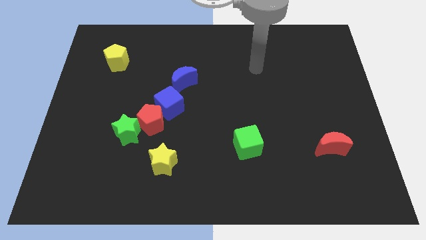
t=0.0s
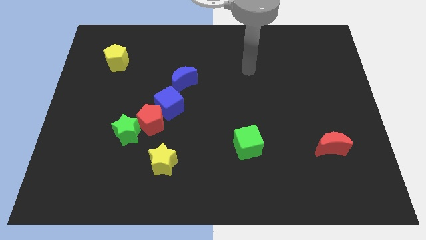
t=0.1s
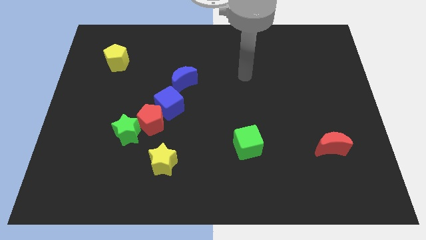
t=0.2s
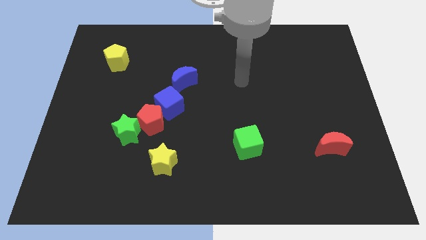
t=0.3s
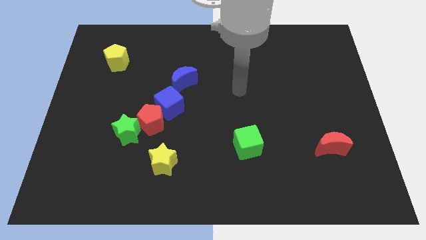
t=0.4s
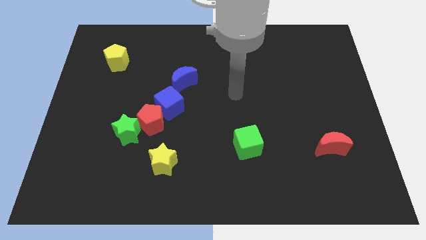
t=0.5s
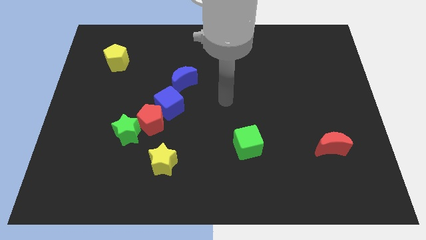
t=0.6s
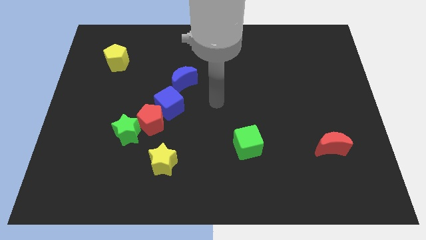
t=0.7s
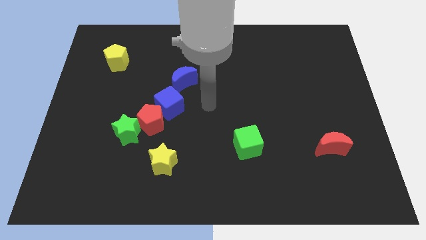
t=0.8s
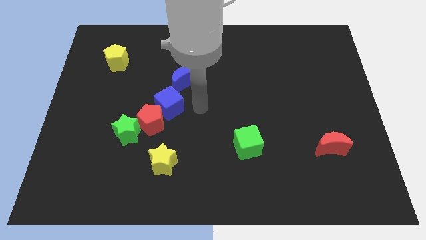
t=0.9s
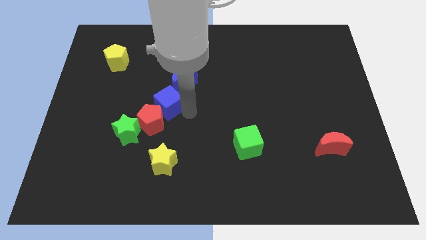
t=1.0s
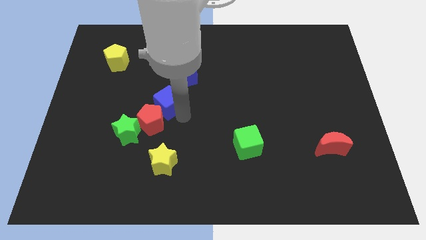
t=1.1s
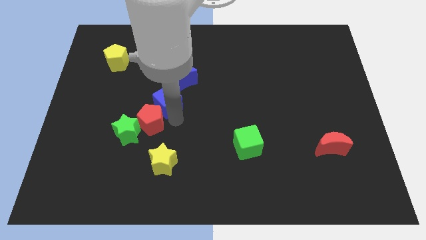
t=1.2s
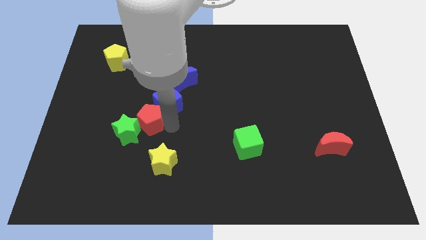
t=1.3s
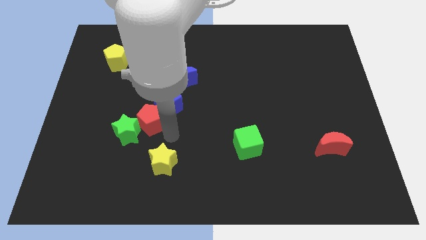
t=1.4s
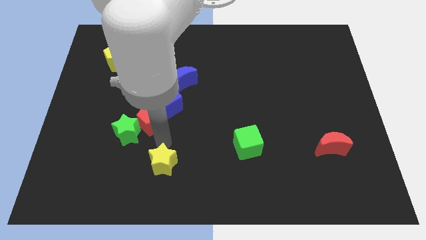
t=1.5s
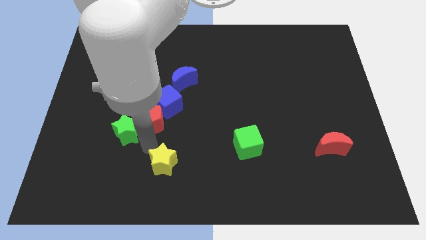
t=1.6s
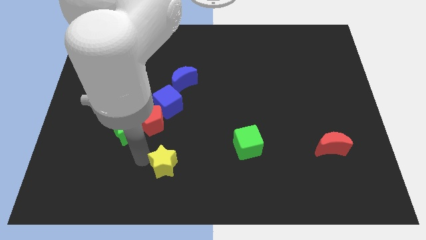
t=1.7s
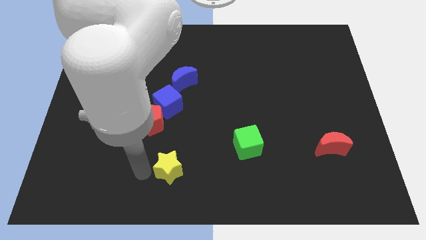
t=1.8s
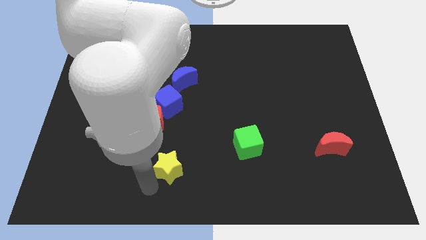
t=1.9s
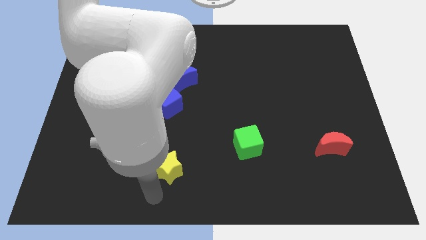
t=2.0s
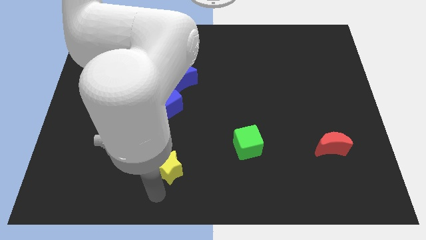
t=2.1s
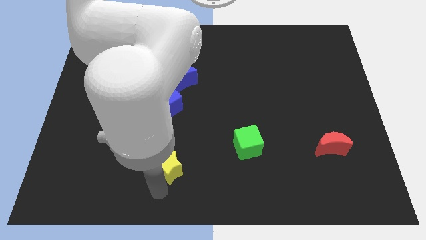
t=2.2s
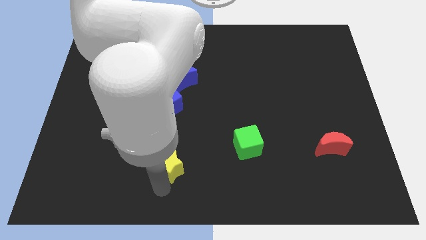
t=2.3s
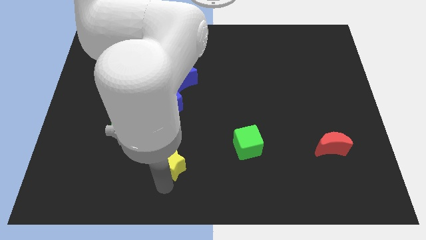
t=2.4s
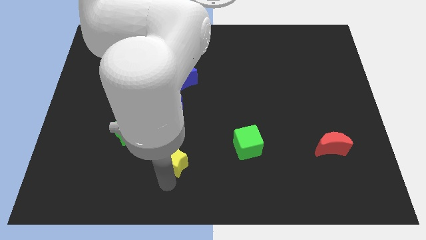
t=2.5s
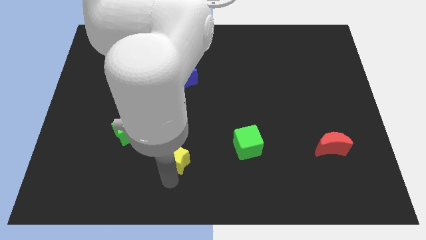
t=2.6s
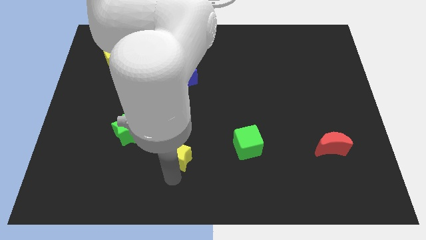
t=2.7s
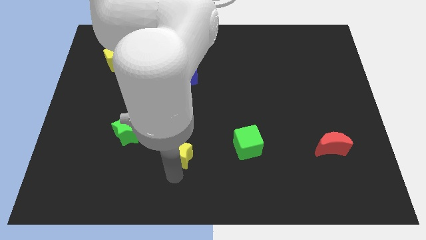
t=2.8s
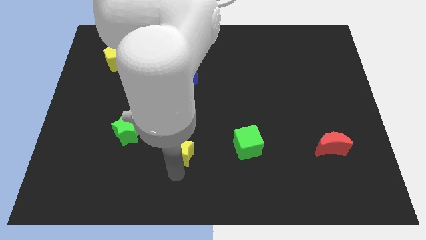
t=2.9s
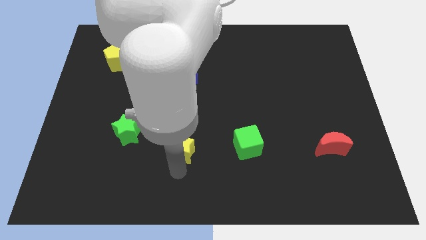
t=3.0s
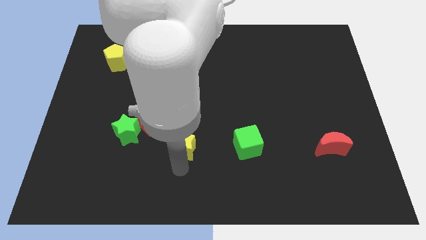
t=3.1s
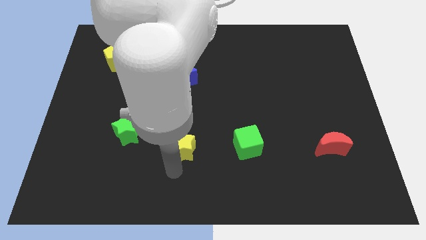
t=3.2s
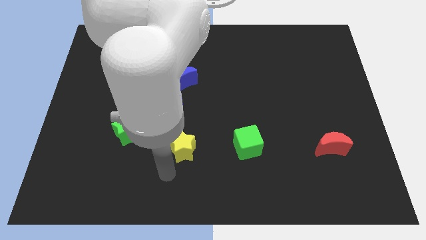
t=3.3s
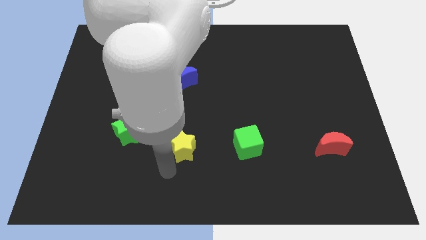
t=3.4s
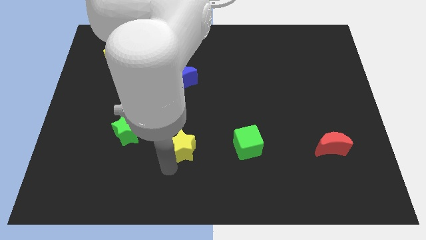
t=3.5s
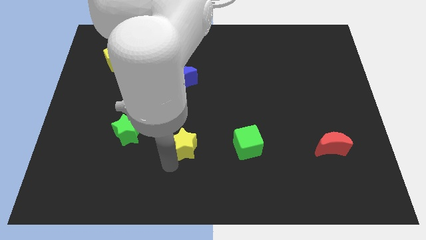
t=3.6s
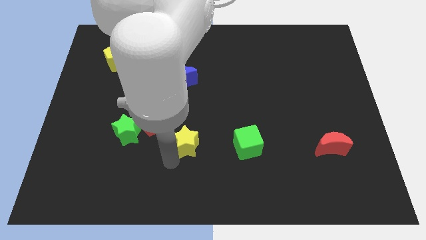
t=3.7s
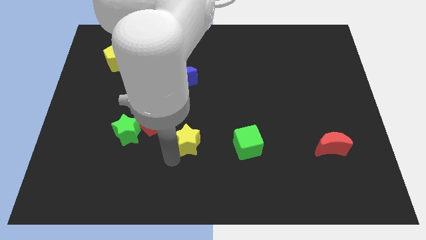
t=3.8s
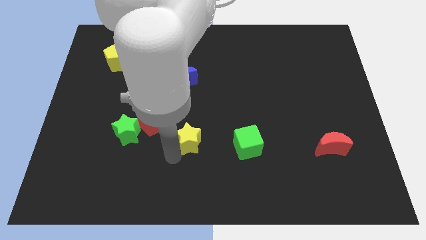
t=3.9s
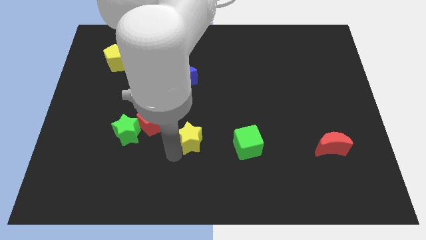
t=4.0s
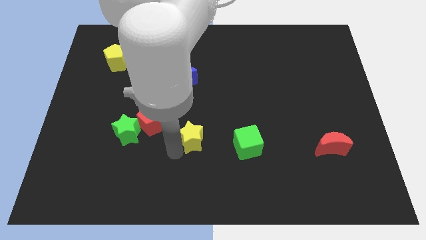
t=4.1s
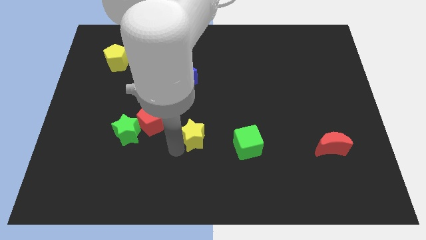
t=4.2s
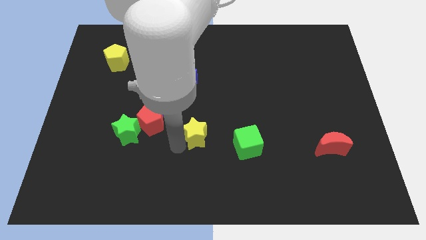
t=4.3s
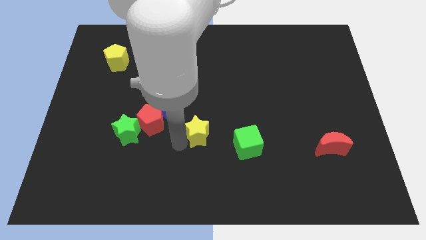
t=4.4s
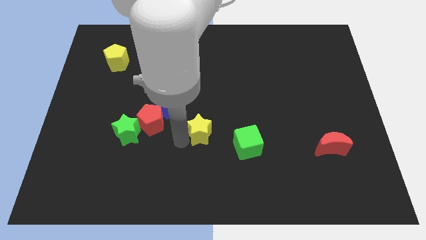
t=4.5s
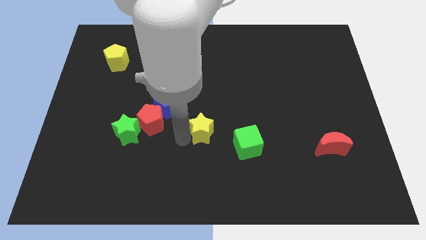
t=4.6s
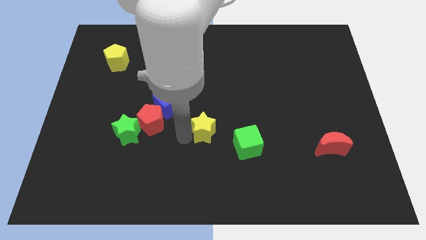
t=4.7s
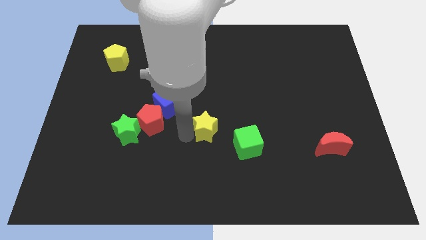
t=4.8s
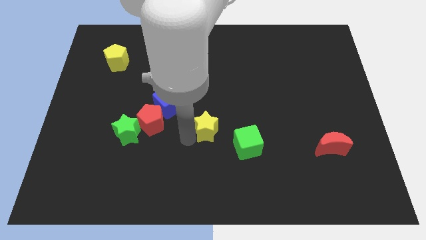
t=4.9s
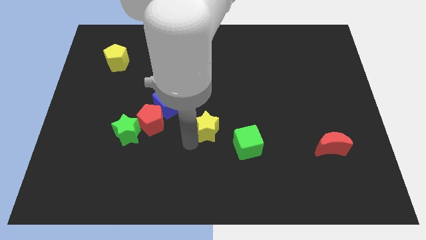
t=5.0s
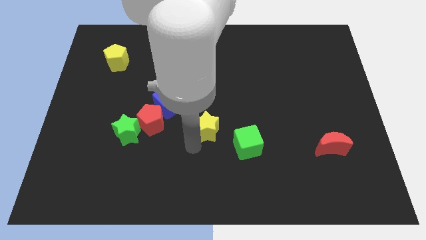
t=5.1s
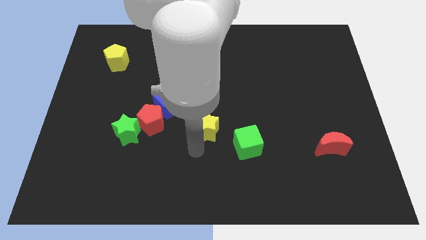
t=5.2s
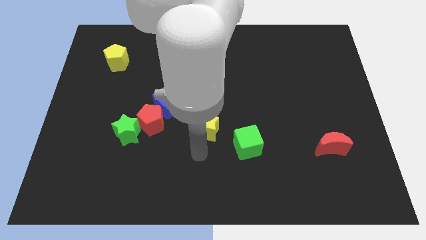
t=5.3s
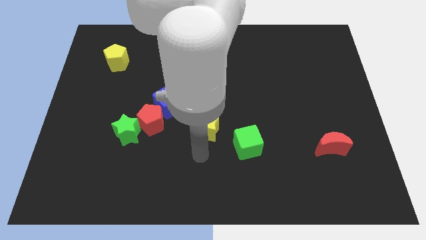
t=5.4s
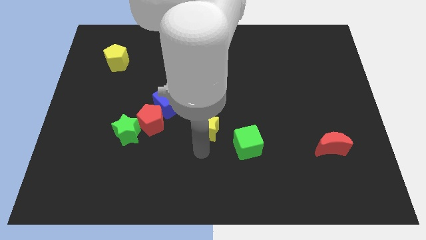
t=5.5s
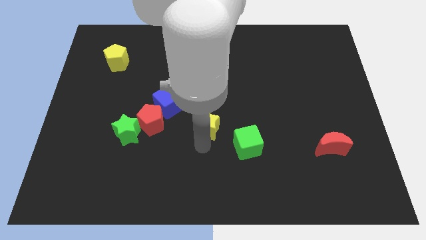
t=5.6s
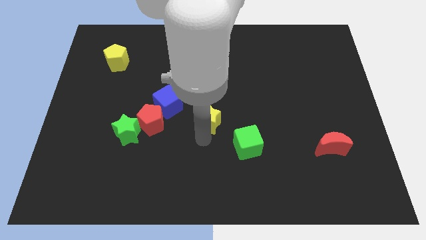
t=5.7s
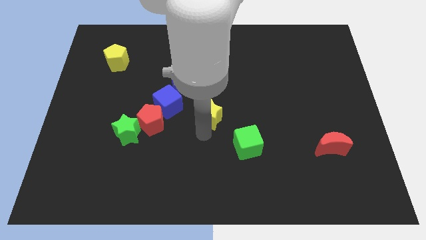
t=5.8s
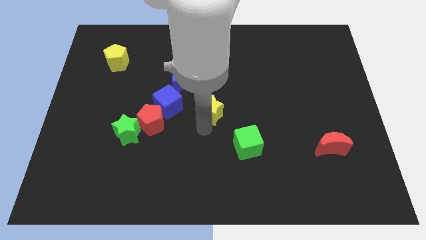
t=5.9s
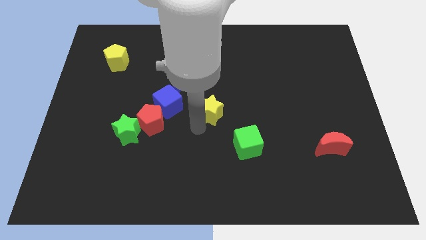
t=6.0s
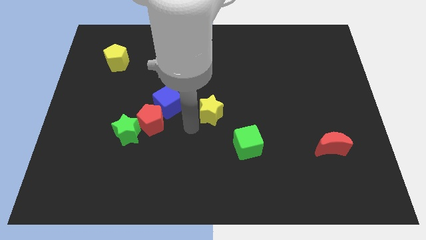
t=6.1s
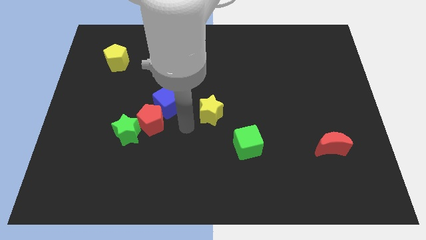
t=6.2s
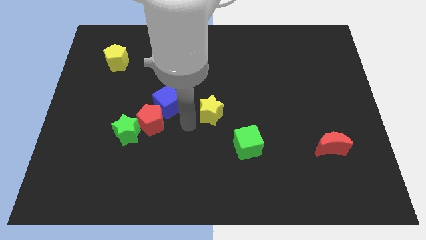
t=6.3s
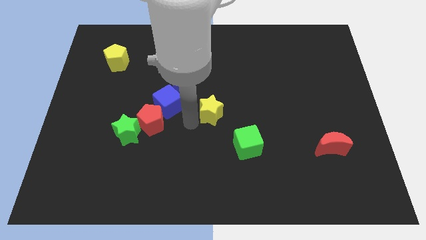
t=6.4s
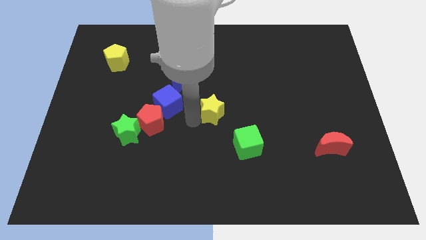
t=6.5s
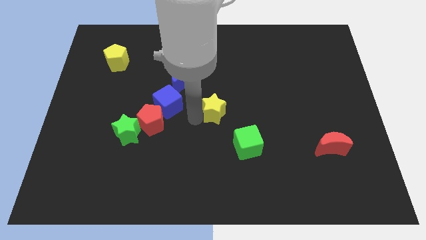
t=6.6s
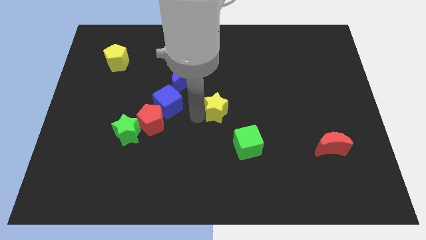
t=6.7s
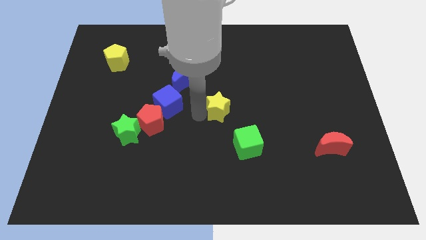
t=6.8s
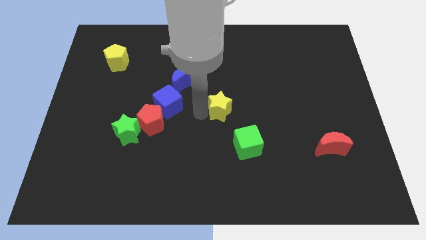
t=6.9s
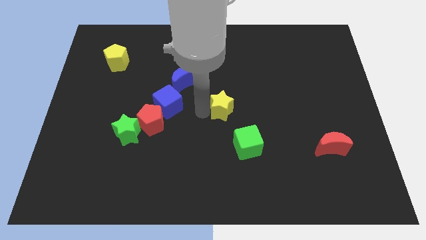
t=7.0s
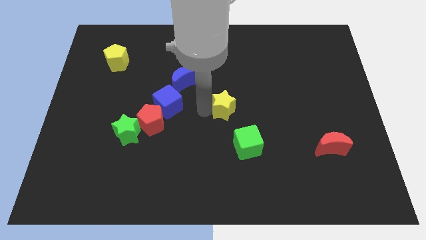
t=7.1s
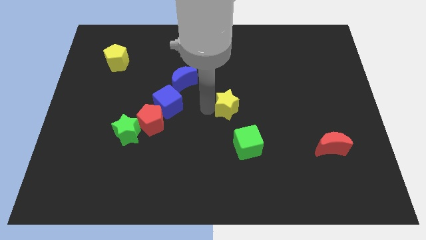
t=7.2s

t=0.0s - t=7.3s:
push the yellow star diagonally upwards and to the right

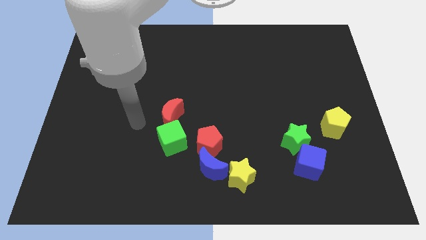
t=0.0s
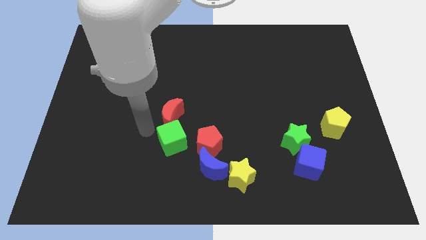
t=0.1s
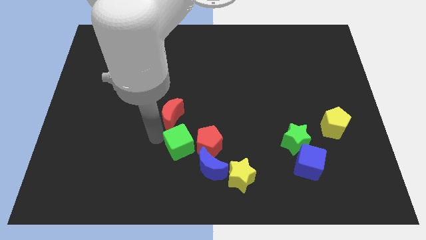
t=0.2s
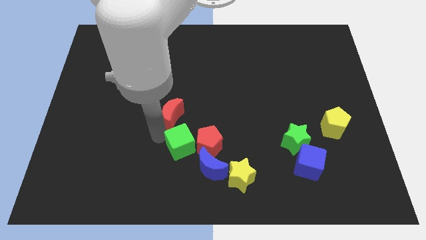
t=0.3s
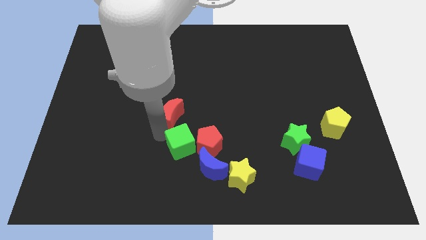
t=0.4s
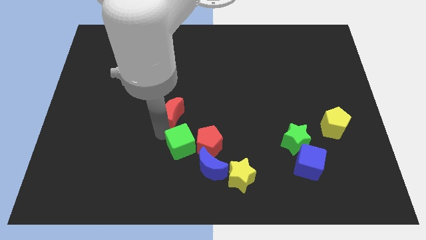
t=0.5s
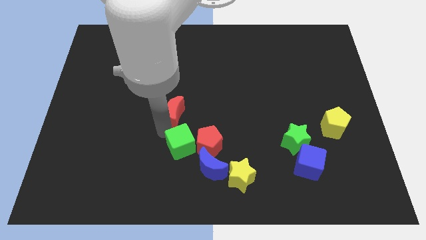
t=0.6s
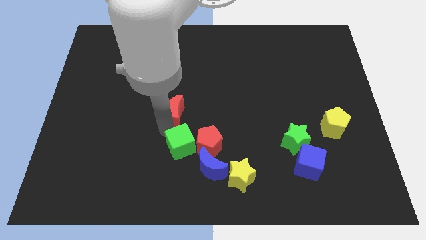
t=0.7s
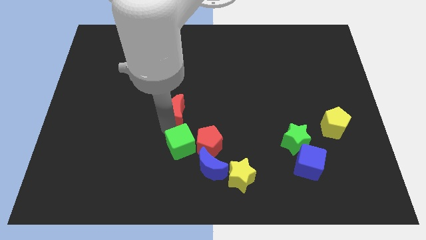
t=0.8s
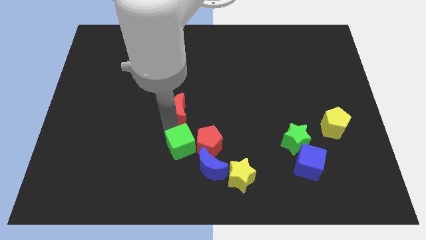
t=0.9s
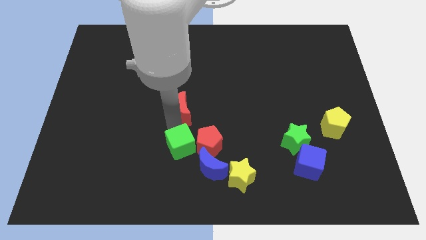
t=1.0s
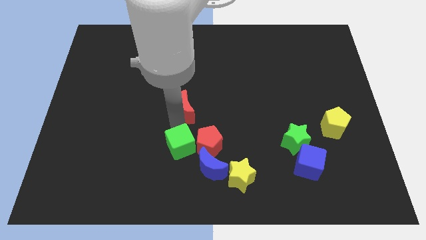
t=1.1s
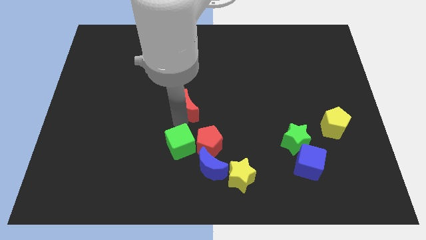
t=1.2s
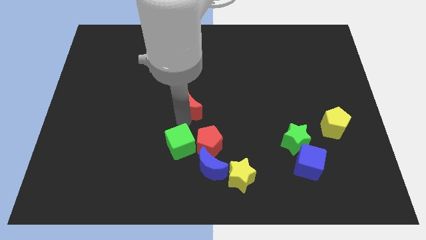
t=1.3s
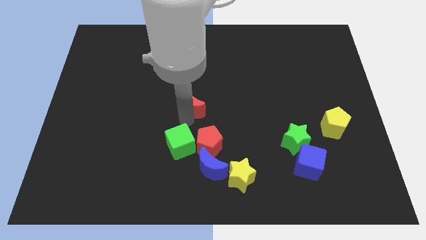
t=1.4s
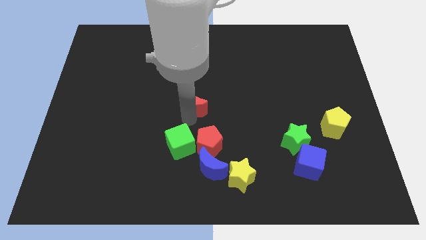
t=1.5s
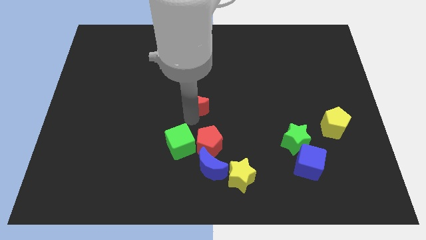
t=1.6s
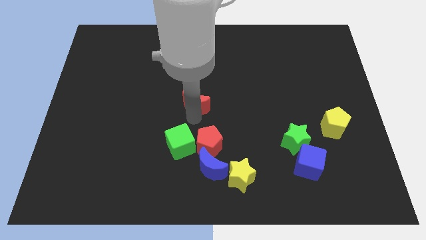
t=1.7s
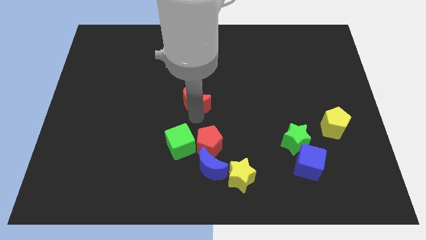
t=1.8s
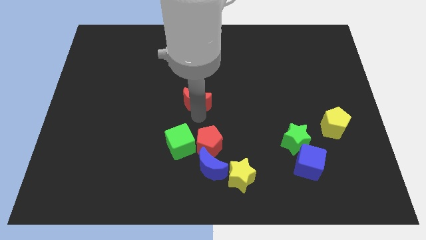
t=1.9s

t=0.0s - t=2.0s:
move the red moon slightly upwards and to the right
